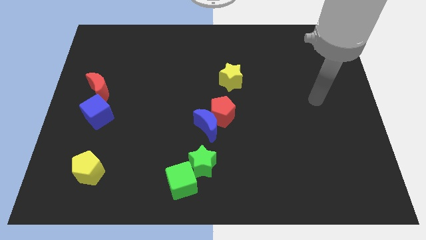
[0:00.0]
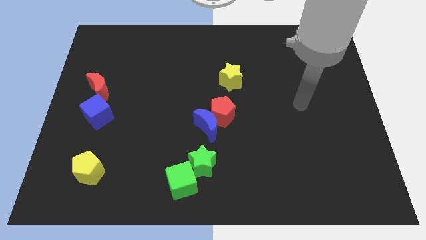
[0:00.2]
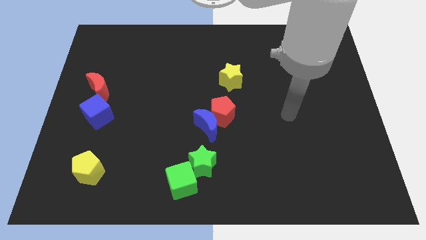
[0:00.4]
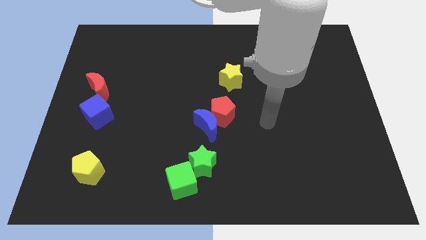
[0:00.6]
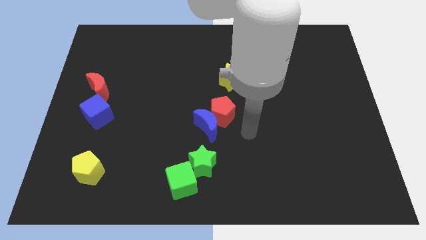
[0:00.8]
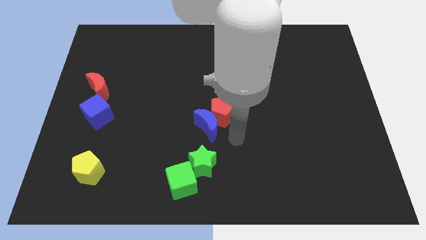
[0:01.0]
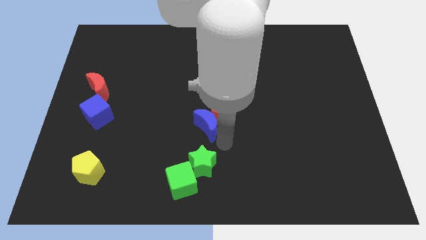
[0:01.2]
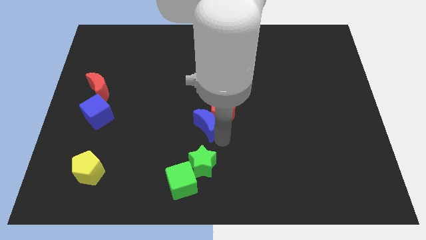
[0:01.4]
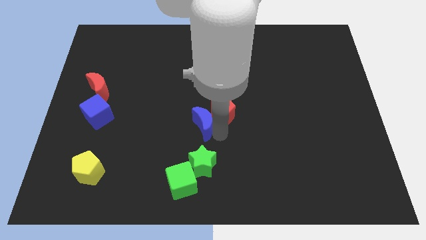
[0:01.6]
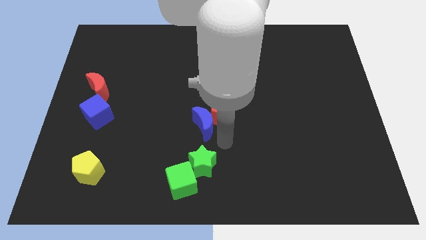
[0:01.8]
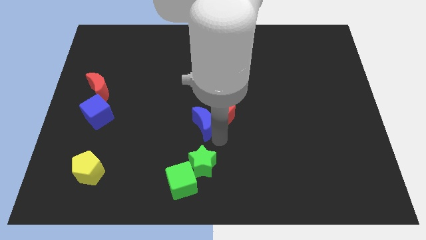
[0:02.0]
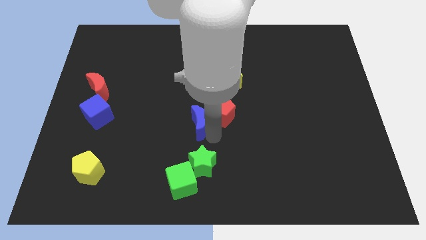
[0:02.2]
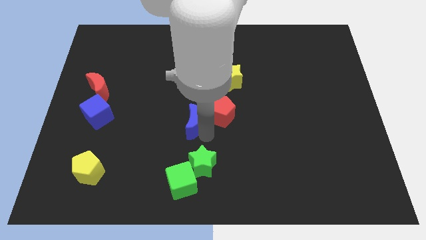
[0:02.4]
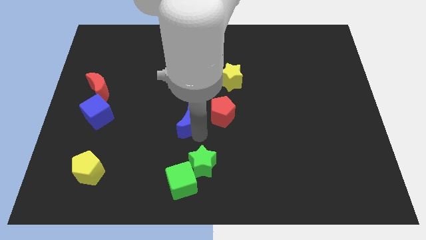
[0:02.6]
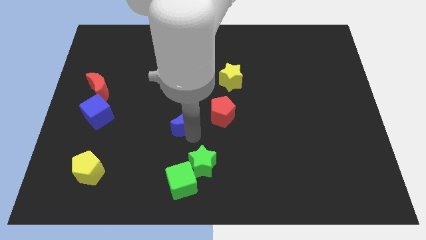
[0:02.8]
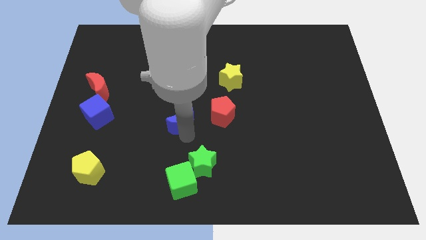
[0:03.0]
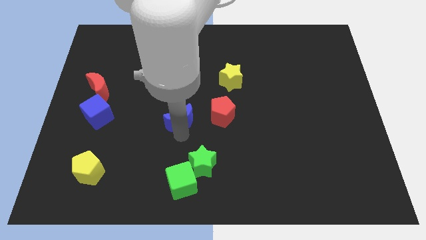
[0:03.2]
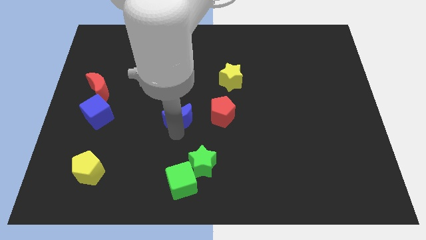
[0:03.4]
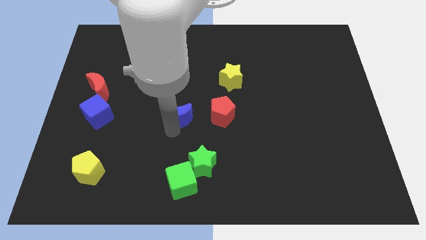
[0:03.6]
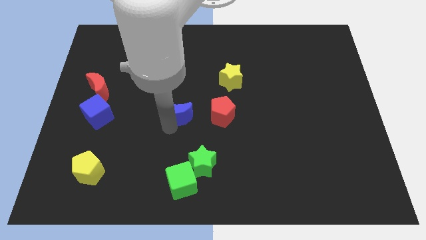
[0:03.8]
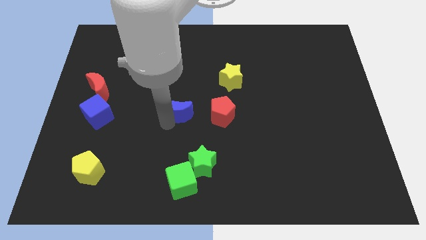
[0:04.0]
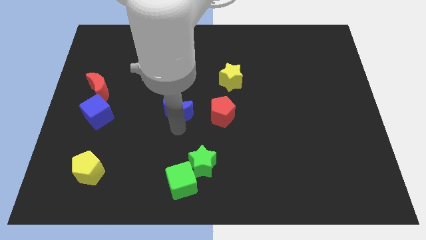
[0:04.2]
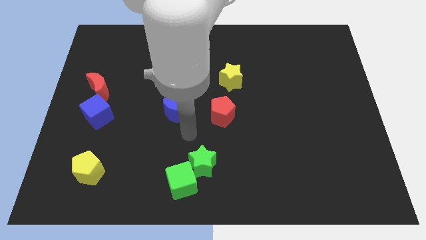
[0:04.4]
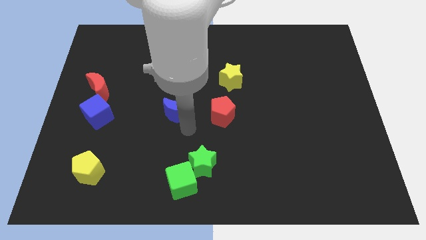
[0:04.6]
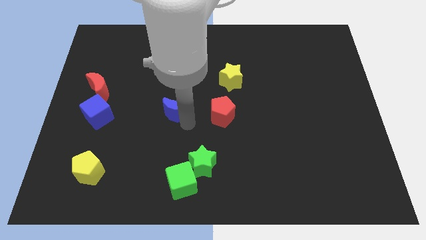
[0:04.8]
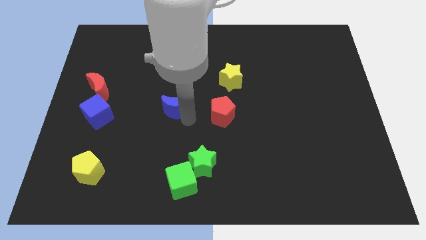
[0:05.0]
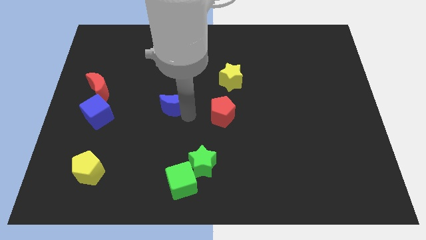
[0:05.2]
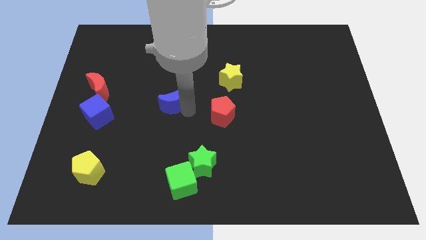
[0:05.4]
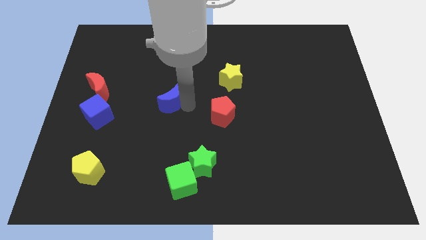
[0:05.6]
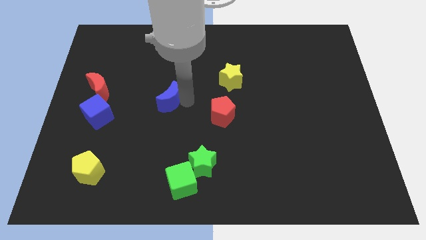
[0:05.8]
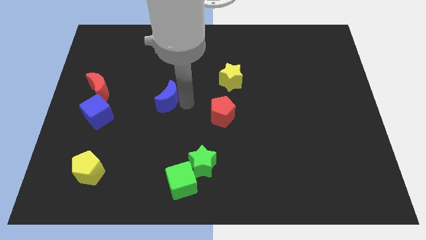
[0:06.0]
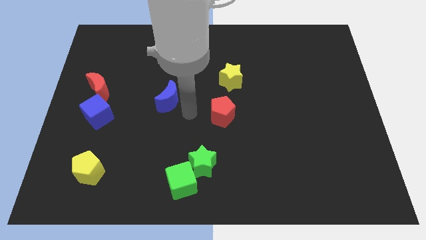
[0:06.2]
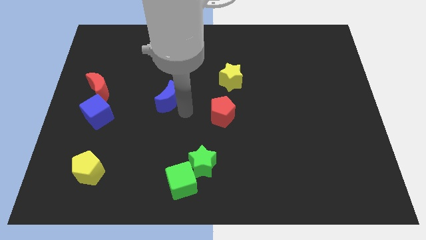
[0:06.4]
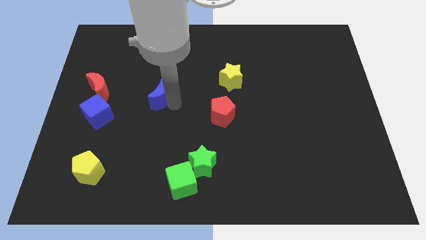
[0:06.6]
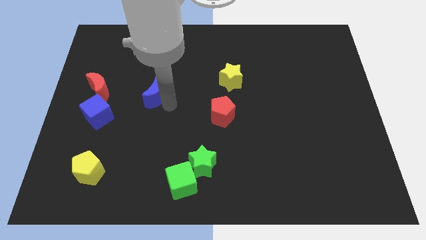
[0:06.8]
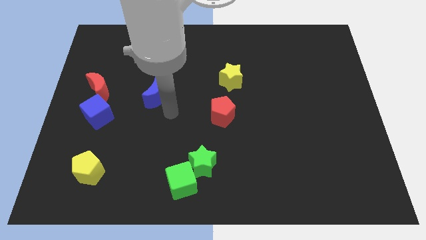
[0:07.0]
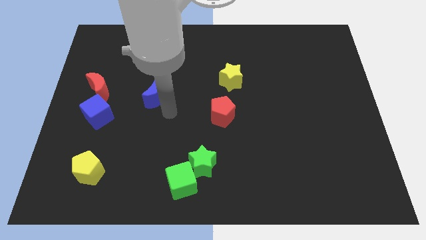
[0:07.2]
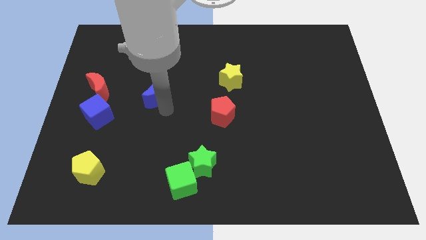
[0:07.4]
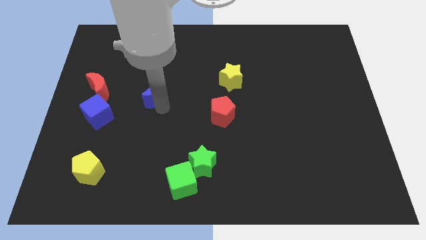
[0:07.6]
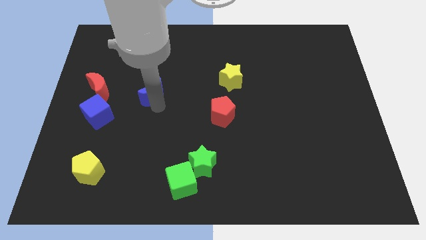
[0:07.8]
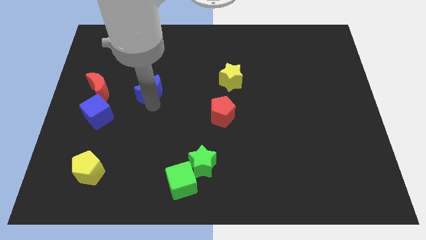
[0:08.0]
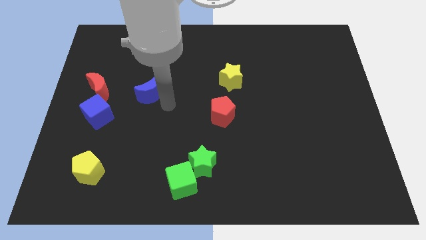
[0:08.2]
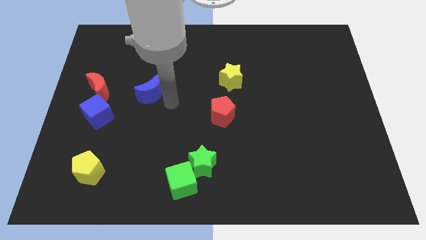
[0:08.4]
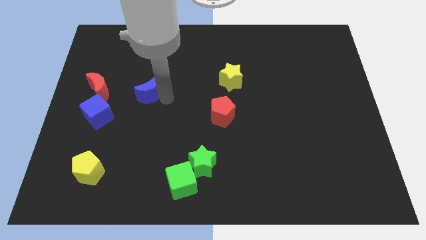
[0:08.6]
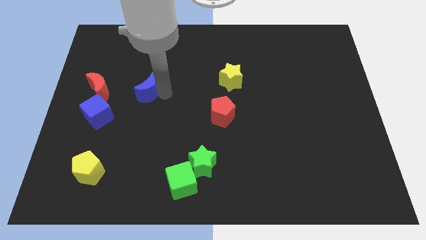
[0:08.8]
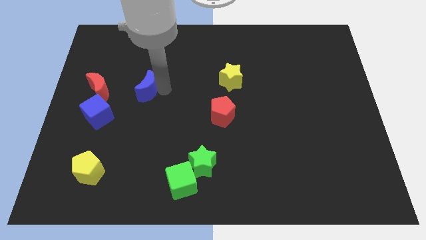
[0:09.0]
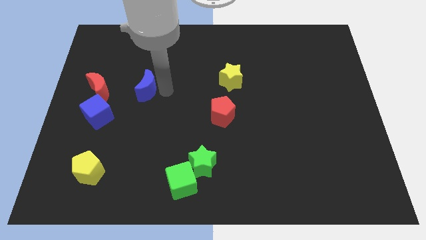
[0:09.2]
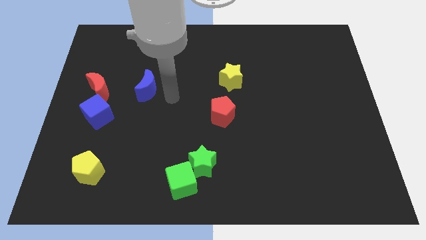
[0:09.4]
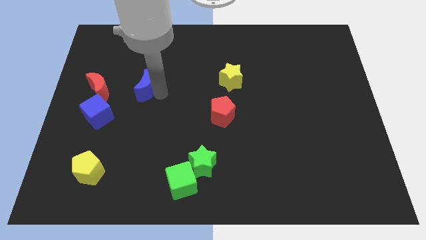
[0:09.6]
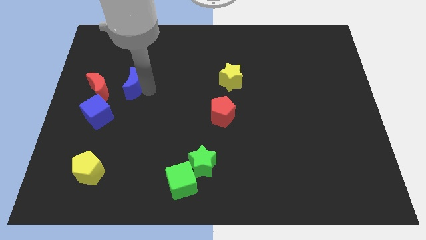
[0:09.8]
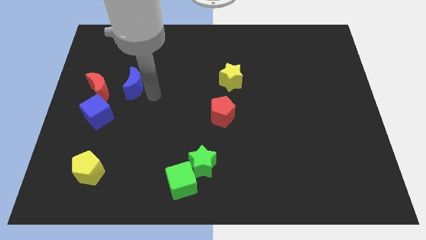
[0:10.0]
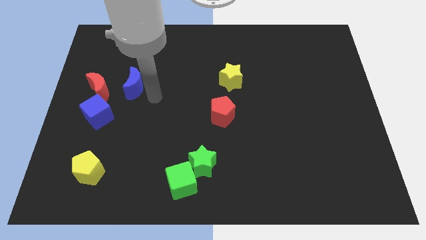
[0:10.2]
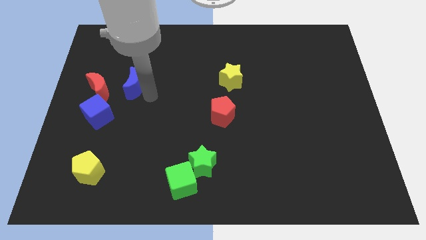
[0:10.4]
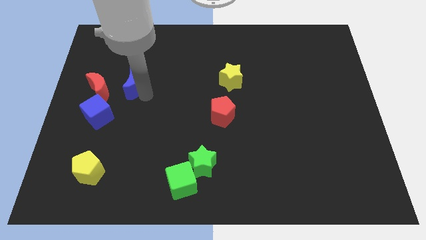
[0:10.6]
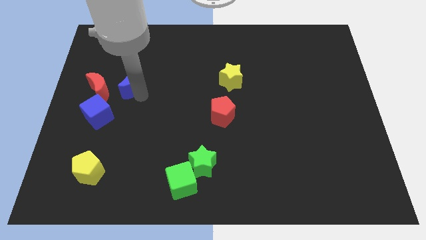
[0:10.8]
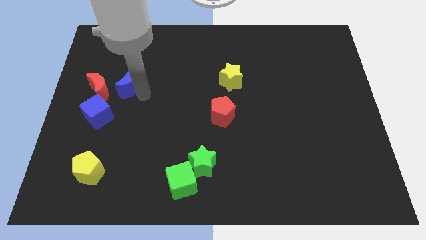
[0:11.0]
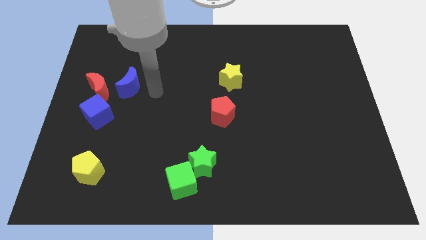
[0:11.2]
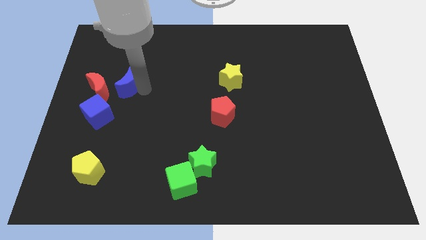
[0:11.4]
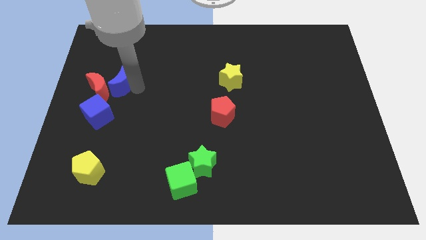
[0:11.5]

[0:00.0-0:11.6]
put the blue moon to the top of the blue cube

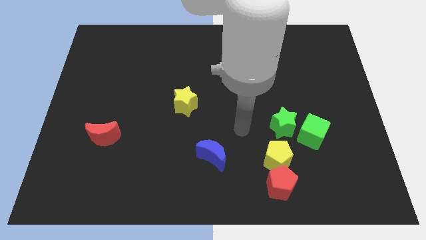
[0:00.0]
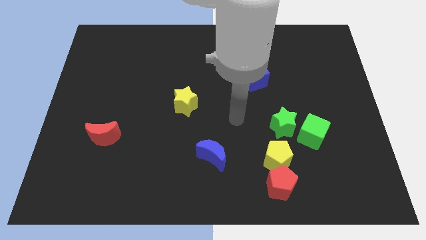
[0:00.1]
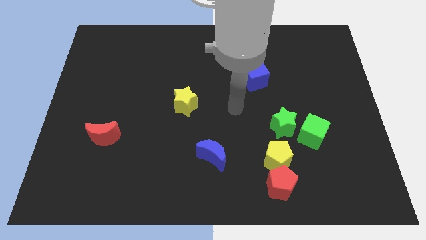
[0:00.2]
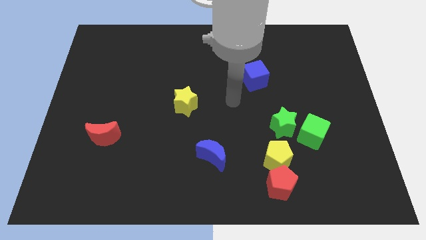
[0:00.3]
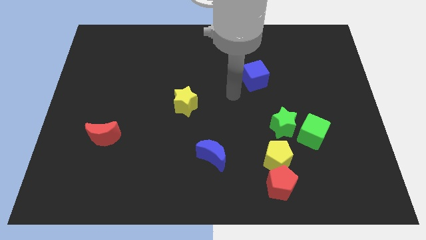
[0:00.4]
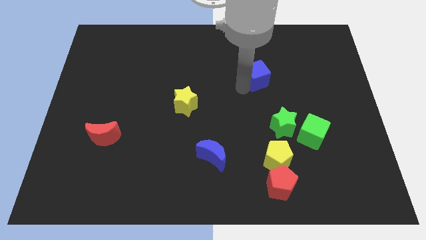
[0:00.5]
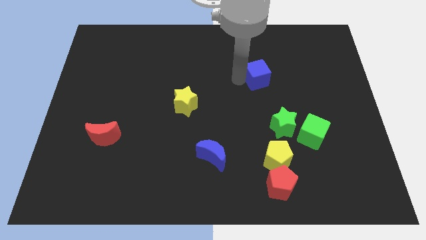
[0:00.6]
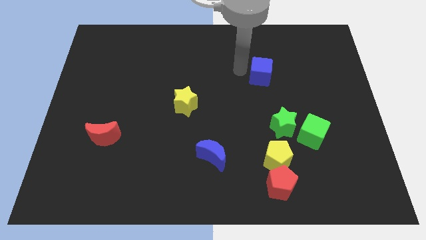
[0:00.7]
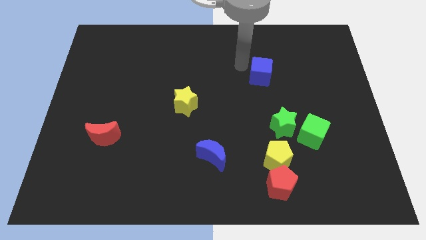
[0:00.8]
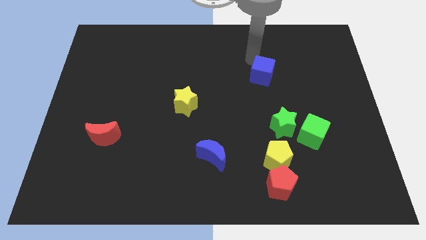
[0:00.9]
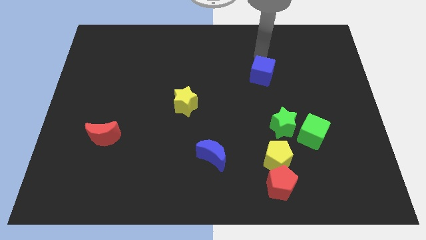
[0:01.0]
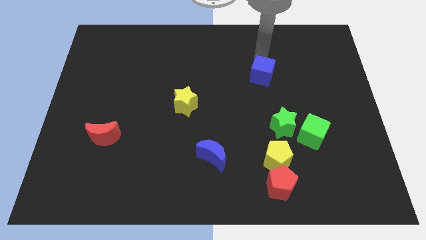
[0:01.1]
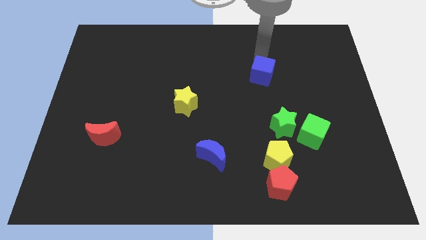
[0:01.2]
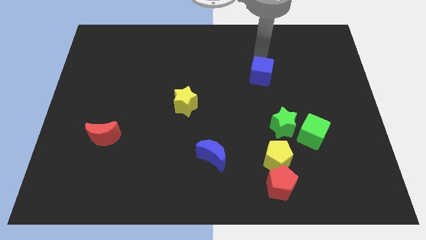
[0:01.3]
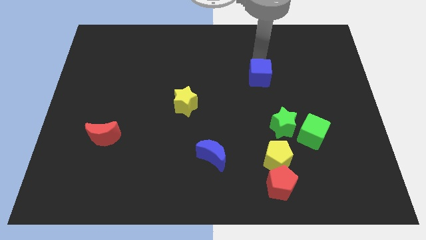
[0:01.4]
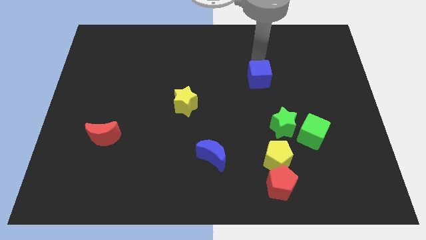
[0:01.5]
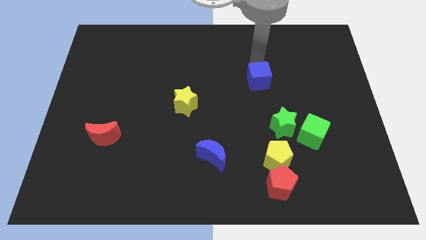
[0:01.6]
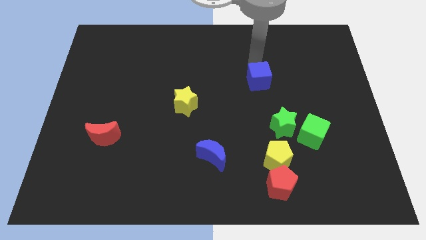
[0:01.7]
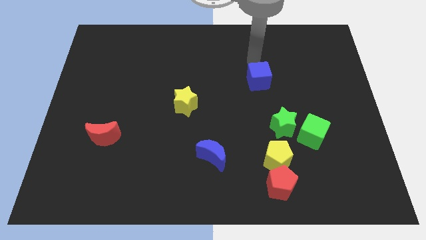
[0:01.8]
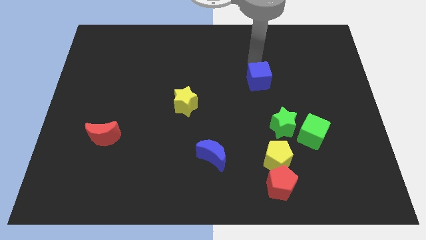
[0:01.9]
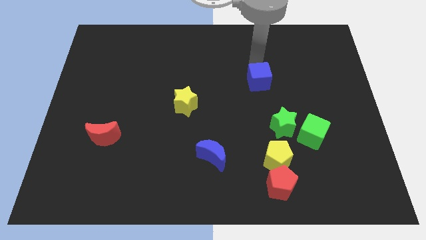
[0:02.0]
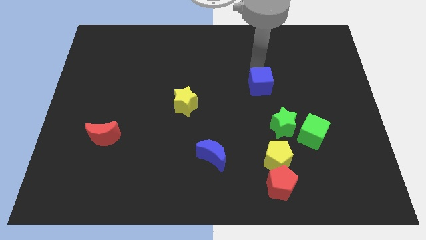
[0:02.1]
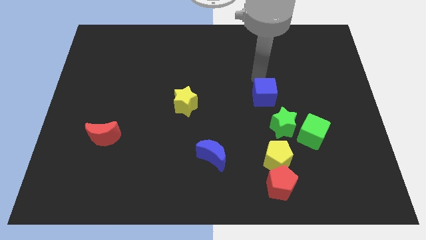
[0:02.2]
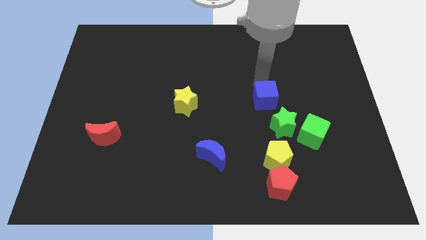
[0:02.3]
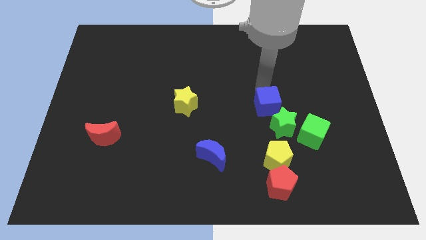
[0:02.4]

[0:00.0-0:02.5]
put the blue cube to the top side of the yellow pentagon
